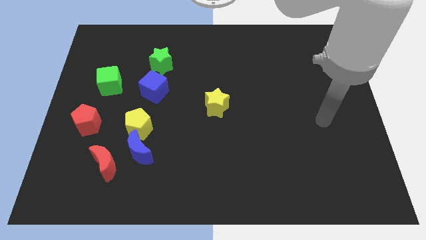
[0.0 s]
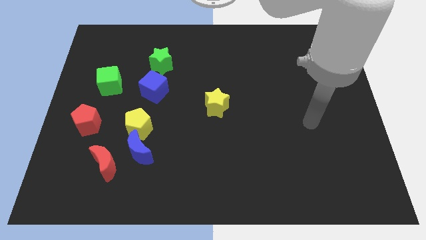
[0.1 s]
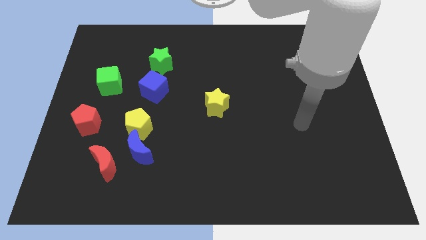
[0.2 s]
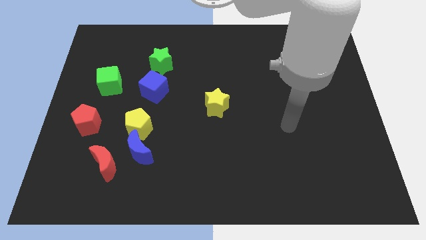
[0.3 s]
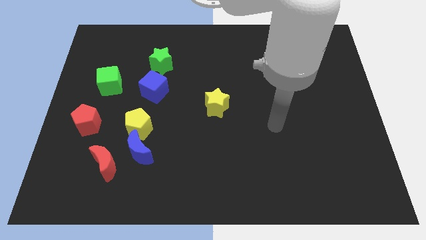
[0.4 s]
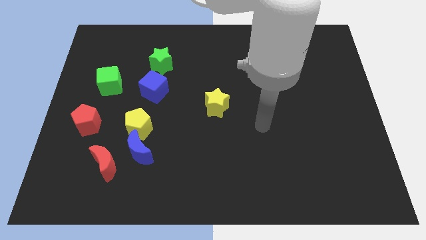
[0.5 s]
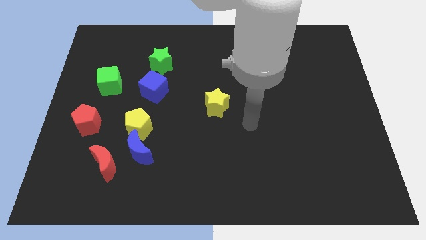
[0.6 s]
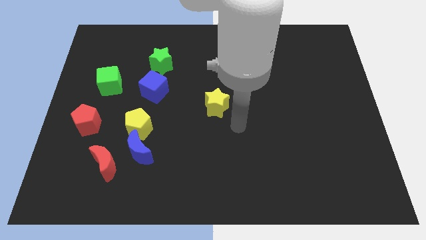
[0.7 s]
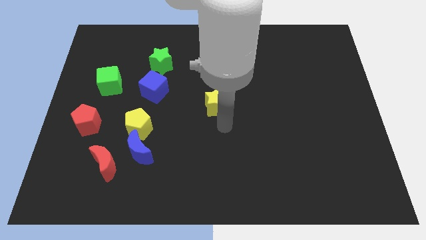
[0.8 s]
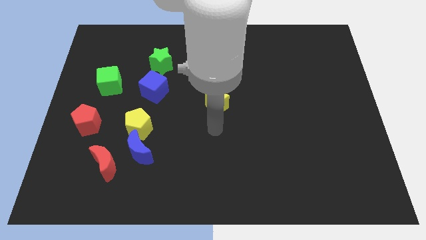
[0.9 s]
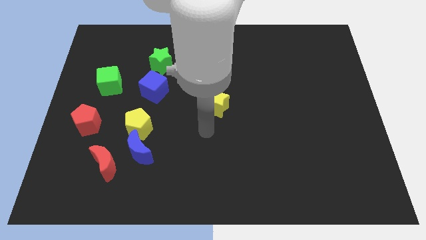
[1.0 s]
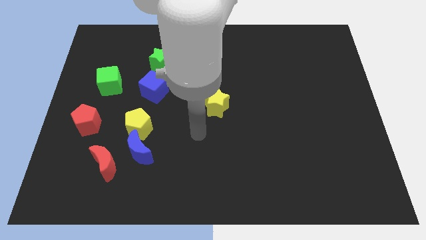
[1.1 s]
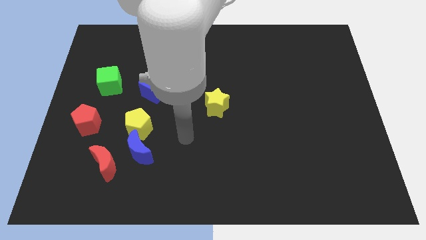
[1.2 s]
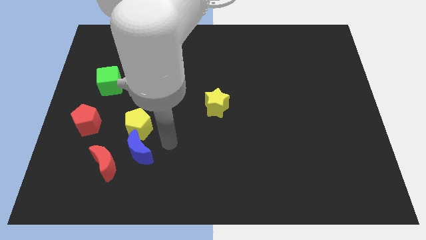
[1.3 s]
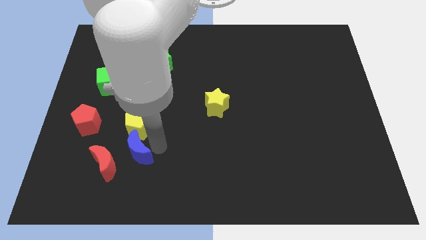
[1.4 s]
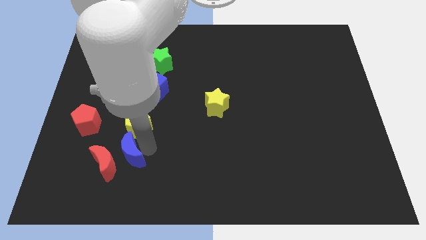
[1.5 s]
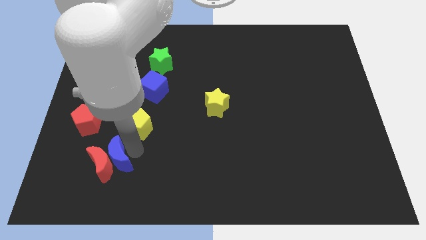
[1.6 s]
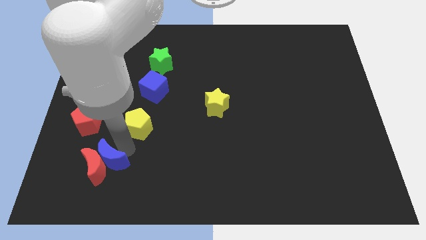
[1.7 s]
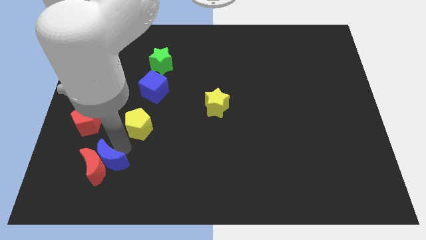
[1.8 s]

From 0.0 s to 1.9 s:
separate the yellow pentagon from the blue moon

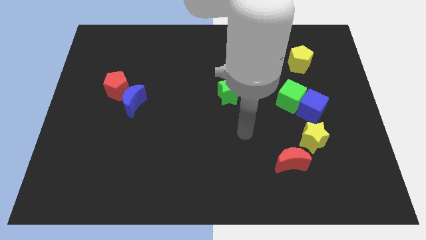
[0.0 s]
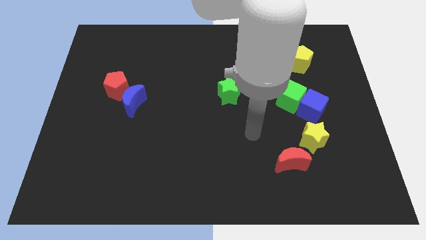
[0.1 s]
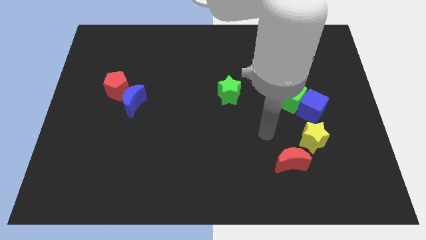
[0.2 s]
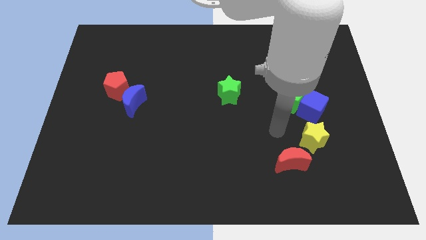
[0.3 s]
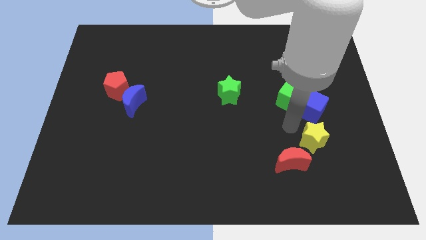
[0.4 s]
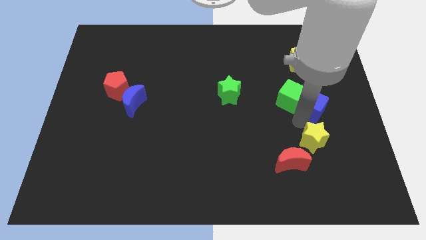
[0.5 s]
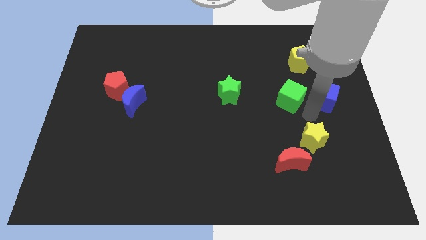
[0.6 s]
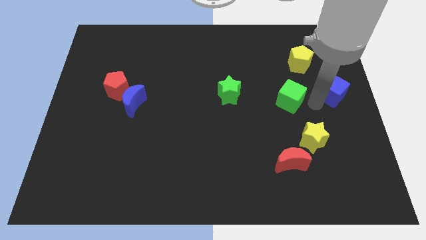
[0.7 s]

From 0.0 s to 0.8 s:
pull the green cube apart from the blue cube

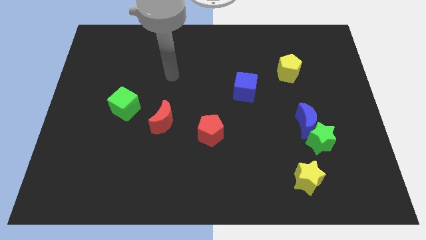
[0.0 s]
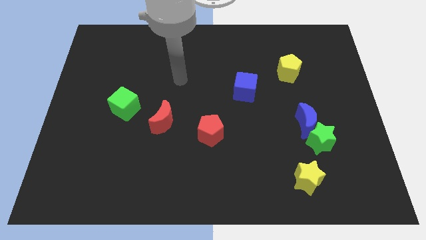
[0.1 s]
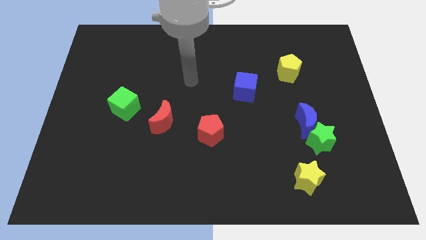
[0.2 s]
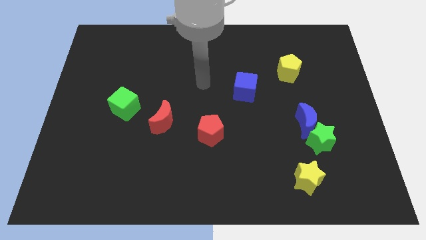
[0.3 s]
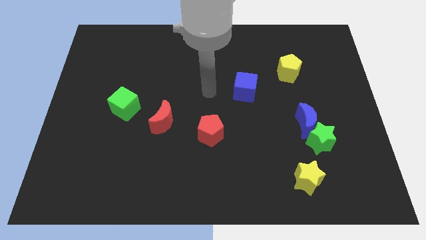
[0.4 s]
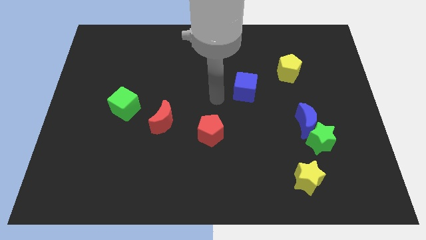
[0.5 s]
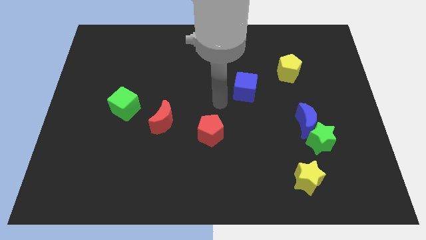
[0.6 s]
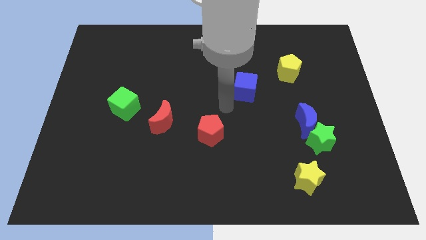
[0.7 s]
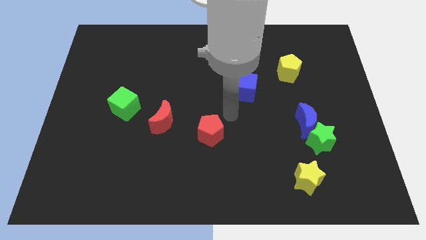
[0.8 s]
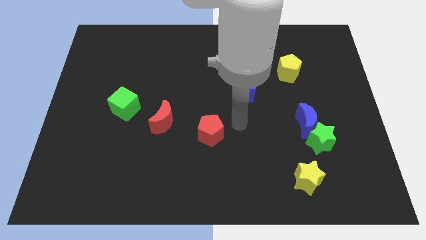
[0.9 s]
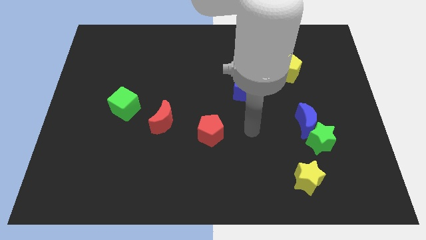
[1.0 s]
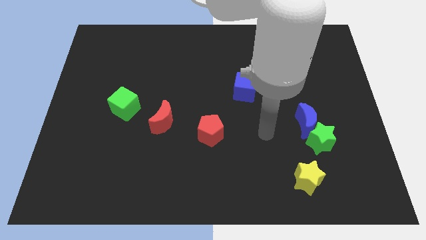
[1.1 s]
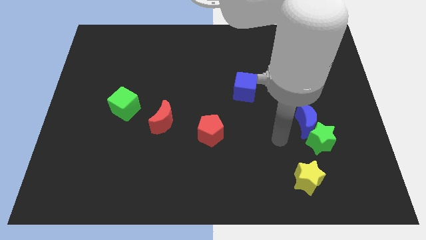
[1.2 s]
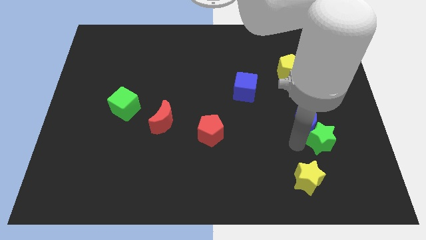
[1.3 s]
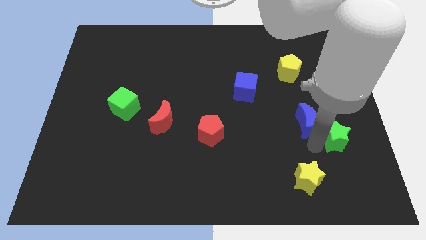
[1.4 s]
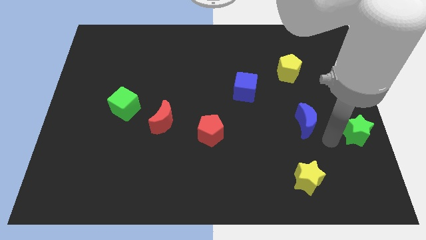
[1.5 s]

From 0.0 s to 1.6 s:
pull the blue moon apart from the green star

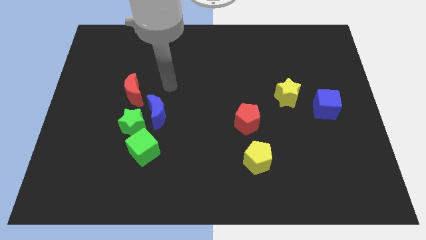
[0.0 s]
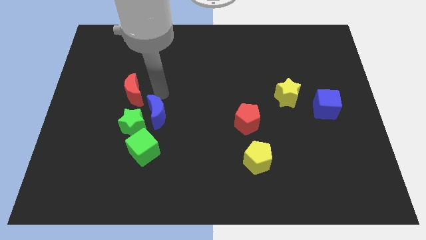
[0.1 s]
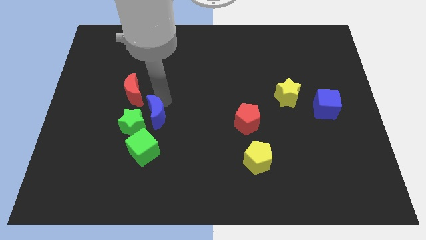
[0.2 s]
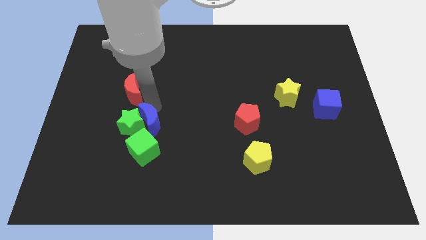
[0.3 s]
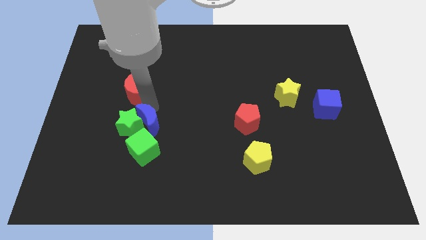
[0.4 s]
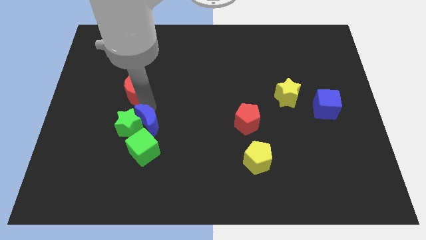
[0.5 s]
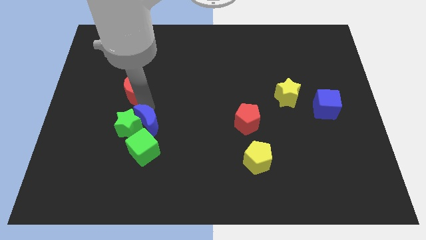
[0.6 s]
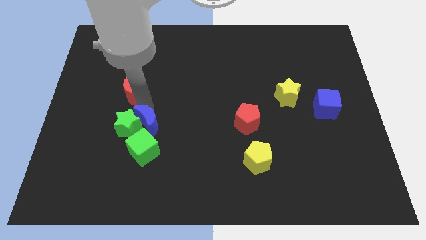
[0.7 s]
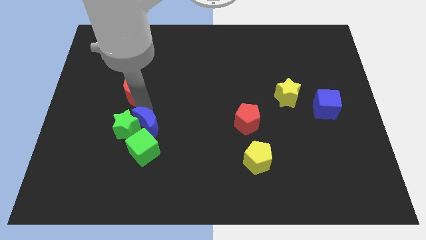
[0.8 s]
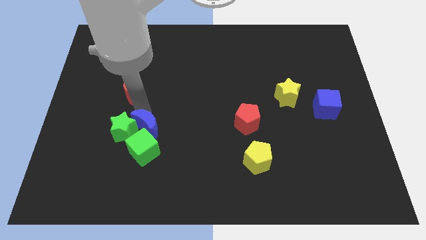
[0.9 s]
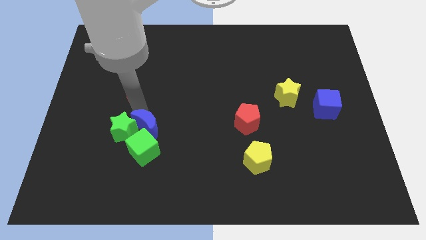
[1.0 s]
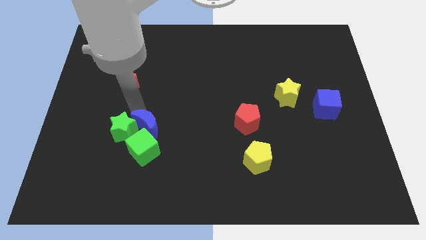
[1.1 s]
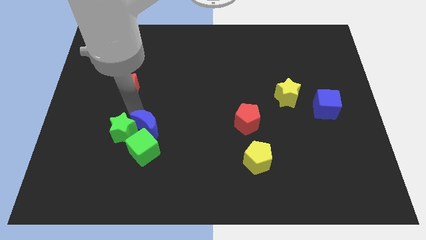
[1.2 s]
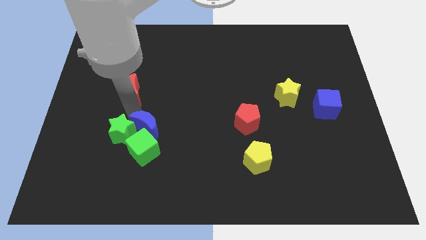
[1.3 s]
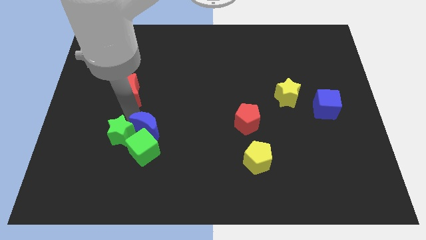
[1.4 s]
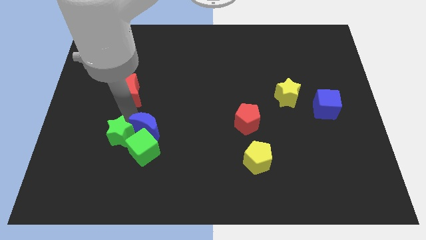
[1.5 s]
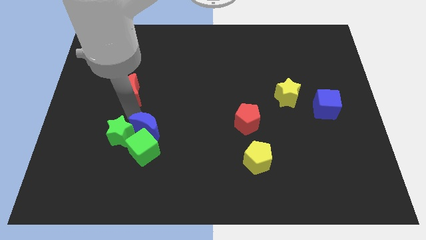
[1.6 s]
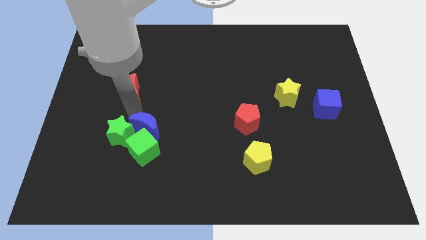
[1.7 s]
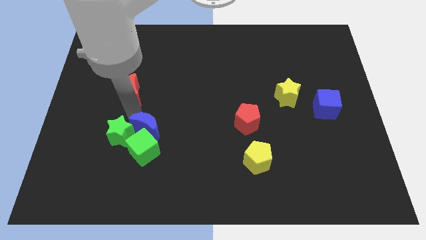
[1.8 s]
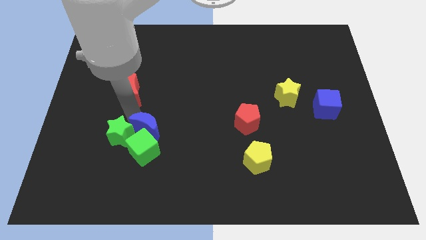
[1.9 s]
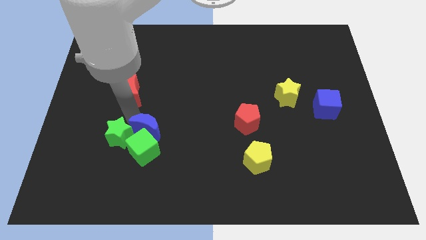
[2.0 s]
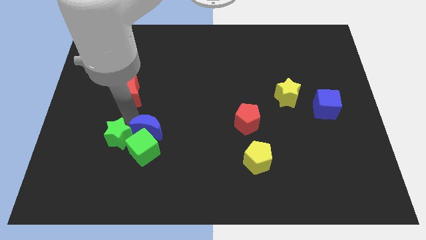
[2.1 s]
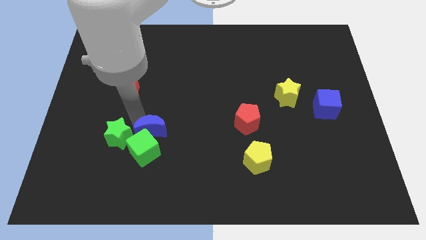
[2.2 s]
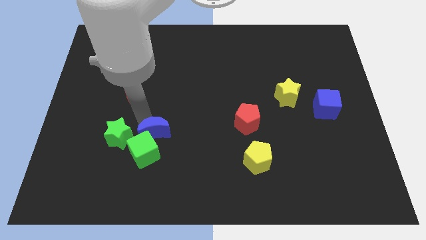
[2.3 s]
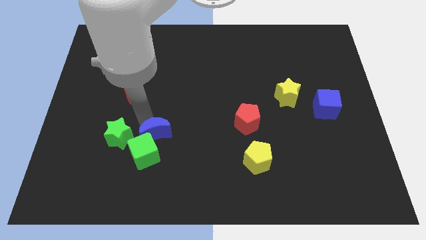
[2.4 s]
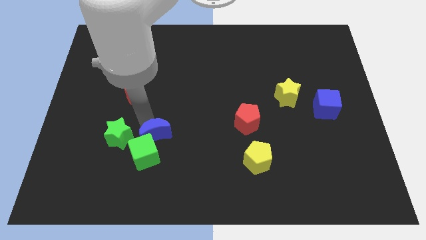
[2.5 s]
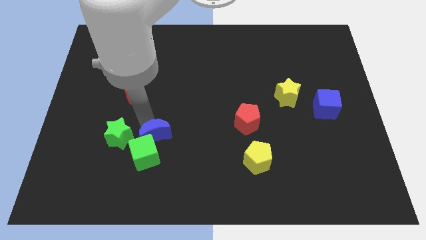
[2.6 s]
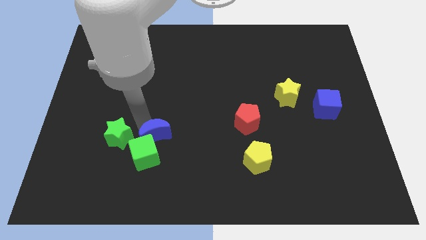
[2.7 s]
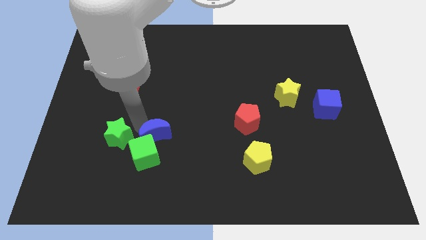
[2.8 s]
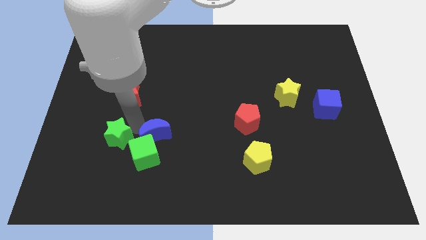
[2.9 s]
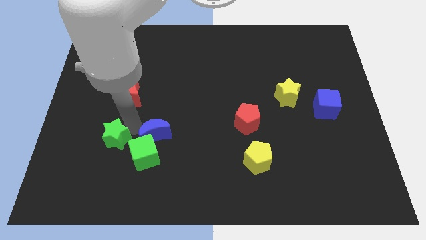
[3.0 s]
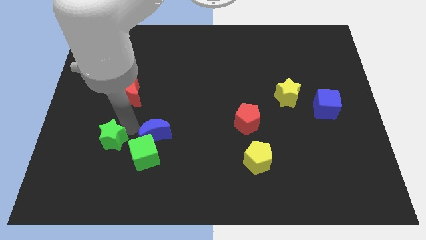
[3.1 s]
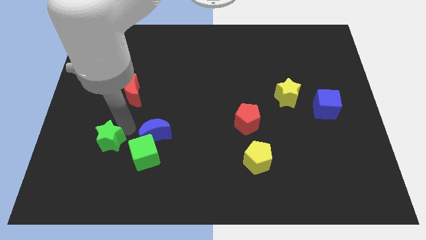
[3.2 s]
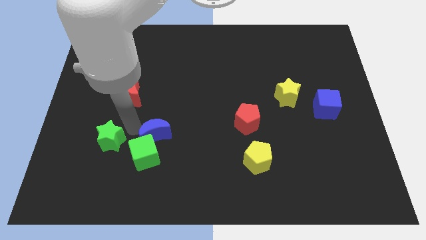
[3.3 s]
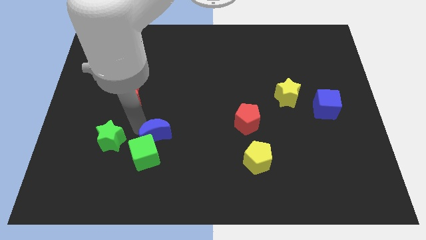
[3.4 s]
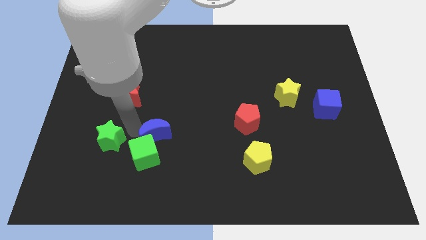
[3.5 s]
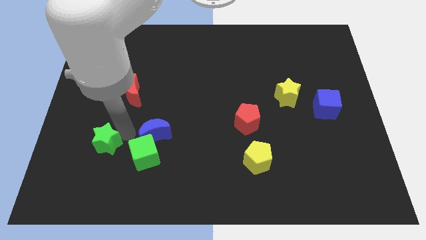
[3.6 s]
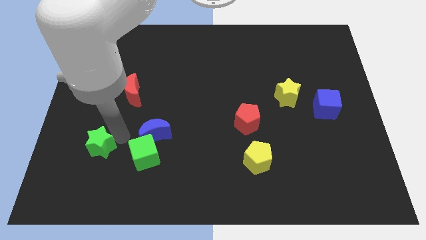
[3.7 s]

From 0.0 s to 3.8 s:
pull the green star apart from the blue moon, green cube, and red moon

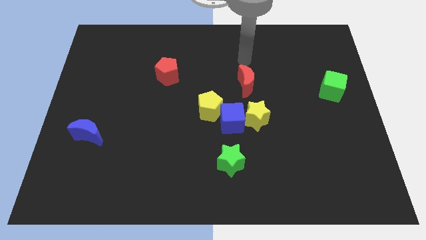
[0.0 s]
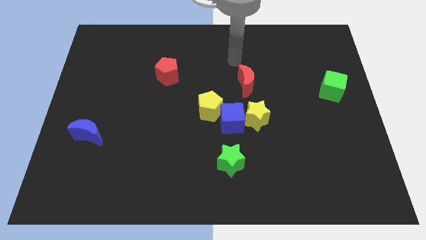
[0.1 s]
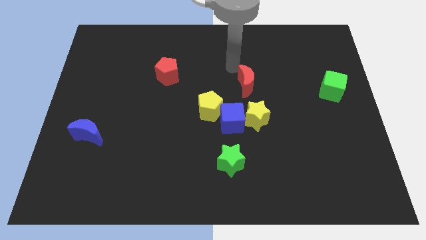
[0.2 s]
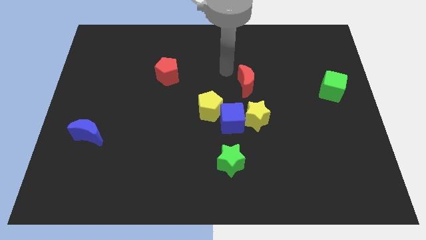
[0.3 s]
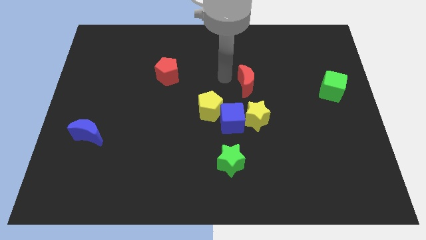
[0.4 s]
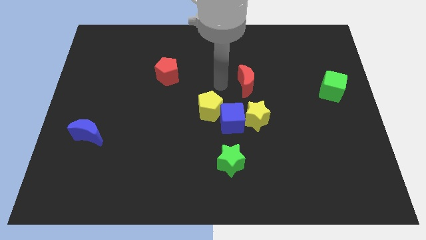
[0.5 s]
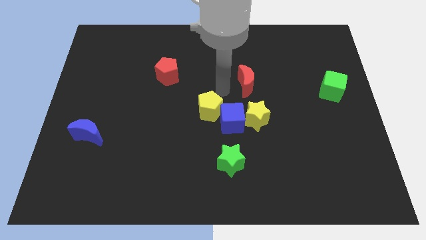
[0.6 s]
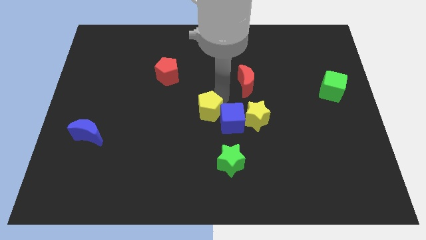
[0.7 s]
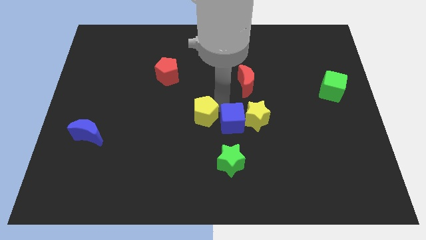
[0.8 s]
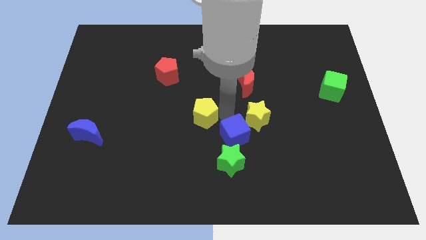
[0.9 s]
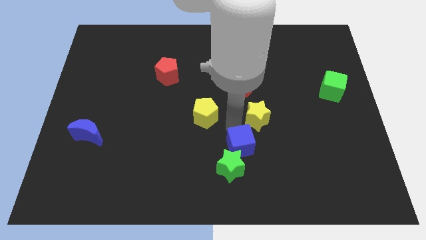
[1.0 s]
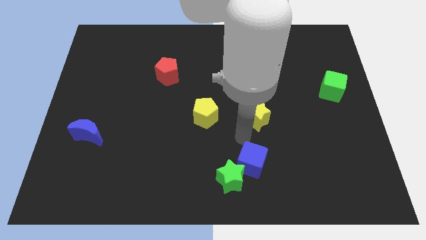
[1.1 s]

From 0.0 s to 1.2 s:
separate the yellow star from the blue cube
